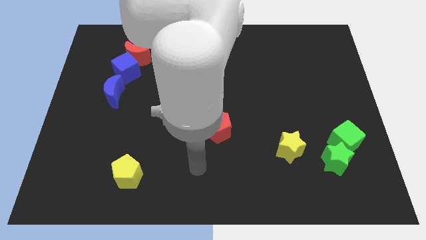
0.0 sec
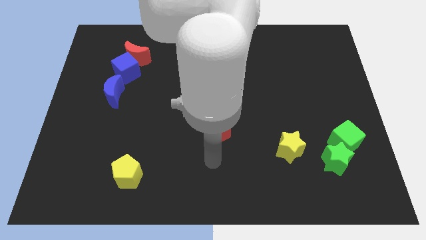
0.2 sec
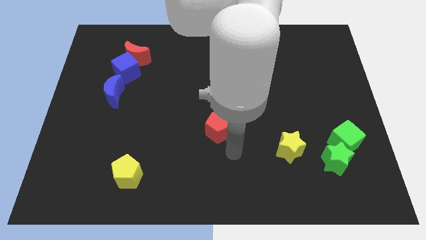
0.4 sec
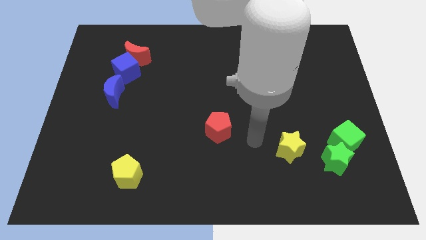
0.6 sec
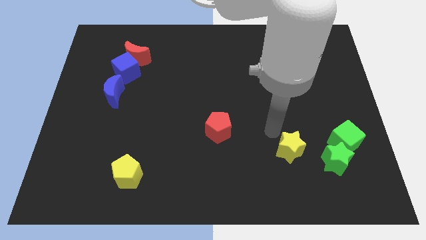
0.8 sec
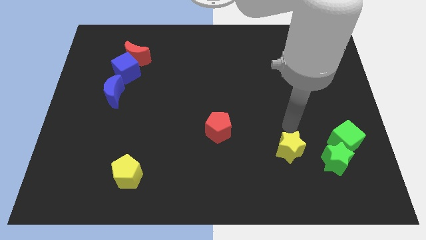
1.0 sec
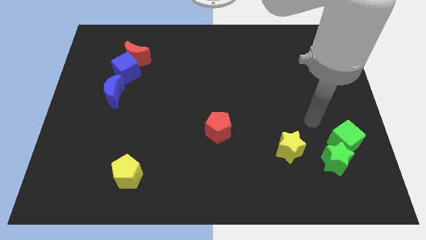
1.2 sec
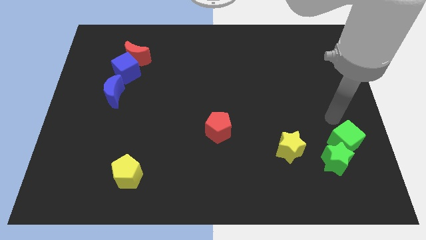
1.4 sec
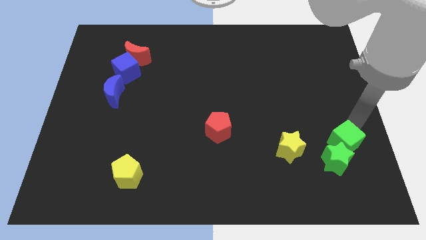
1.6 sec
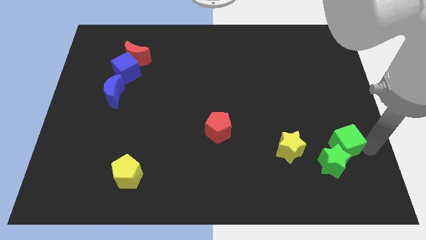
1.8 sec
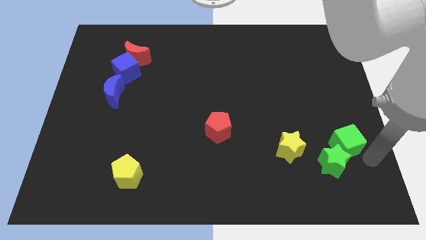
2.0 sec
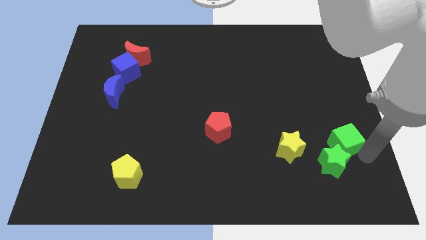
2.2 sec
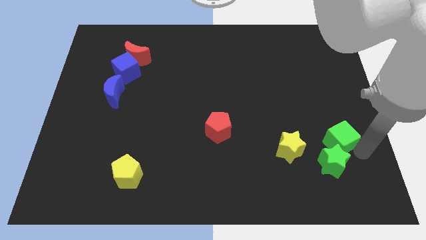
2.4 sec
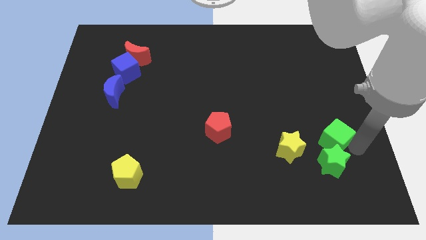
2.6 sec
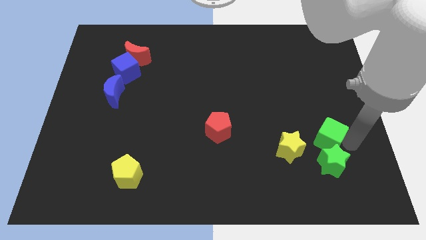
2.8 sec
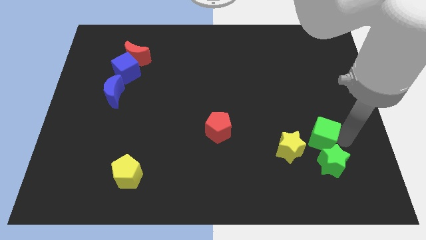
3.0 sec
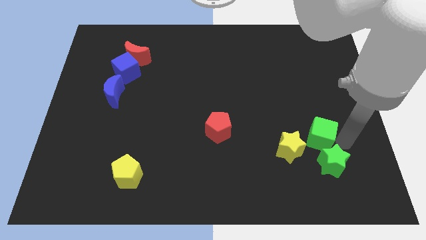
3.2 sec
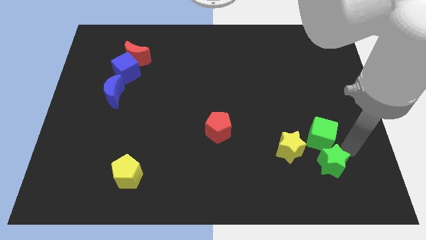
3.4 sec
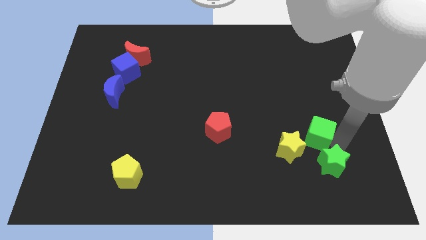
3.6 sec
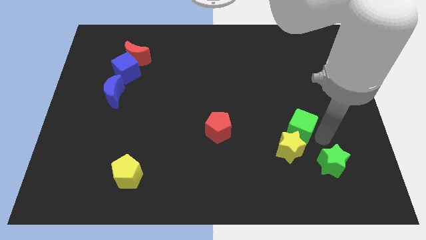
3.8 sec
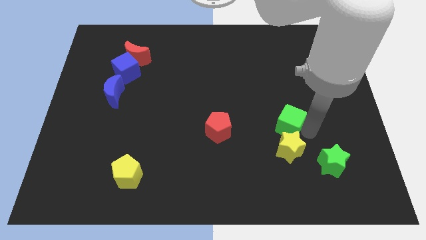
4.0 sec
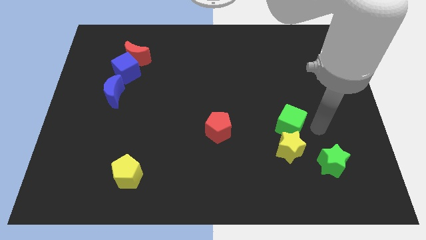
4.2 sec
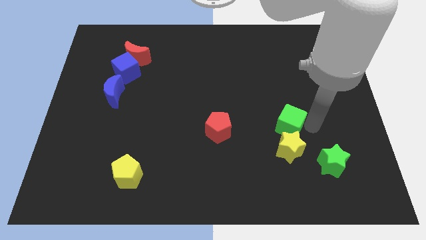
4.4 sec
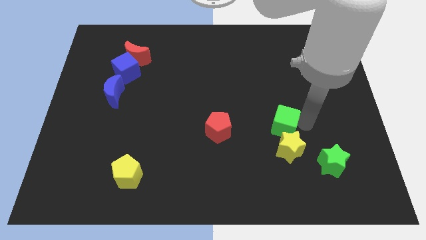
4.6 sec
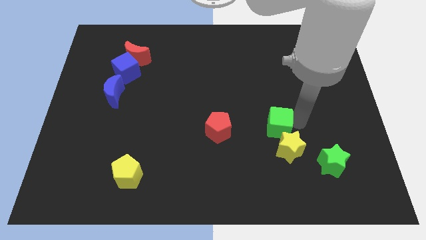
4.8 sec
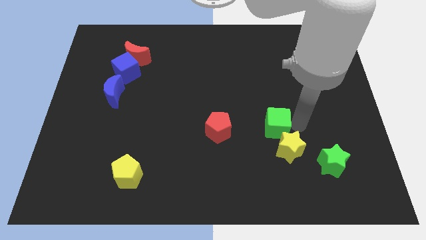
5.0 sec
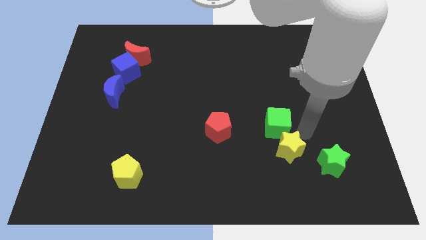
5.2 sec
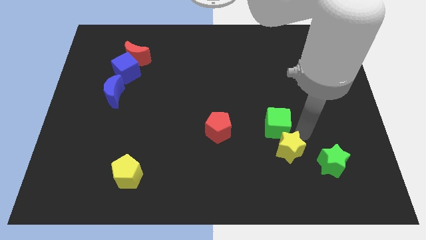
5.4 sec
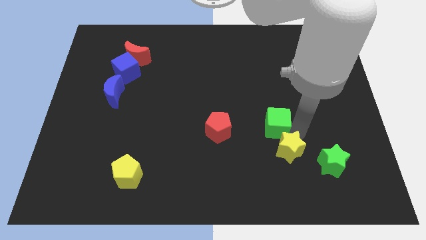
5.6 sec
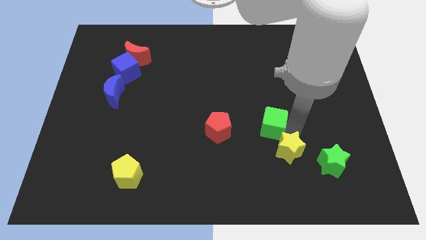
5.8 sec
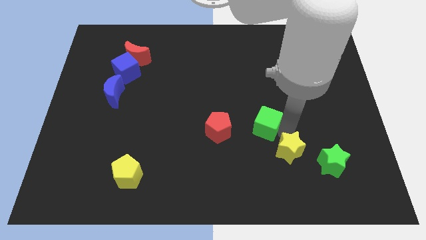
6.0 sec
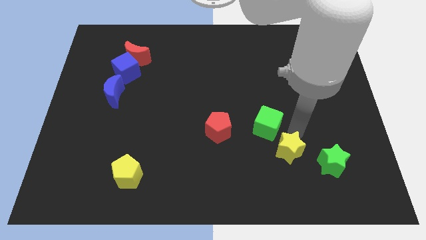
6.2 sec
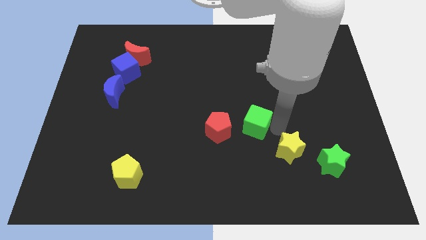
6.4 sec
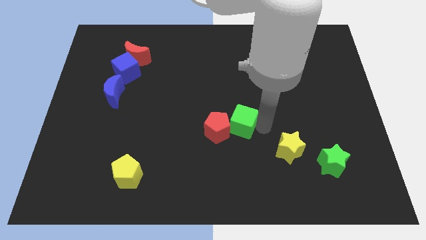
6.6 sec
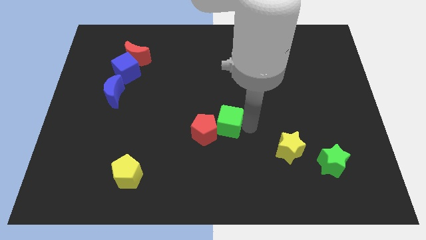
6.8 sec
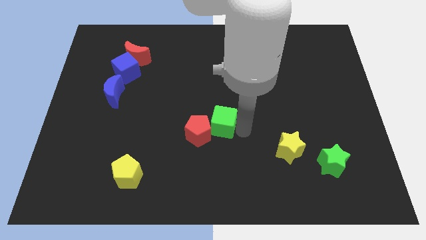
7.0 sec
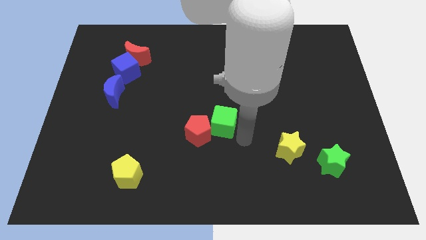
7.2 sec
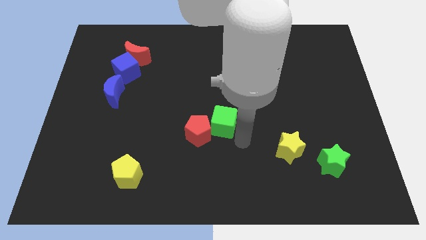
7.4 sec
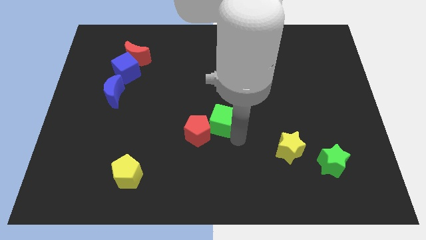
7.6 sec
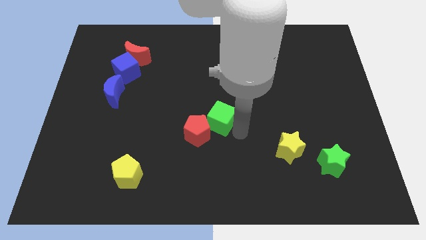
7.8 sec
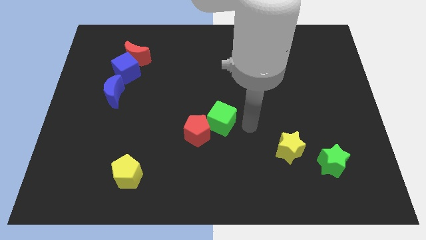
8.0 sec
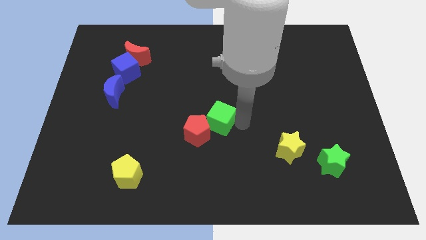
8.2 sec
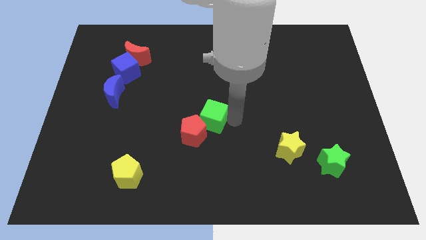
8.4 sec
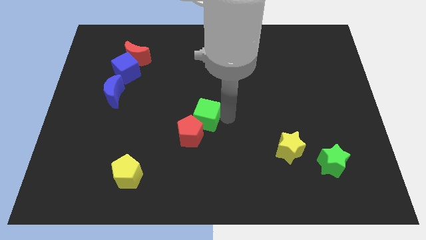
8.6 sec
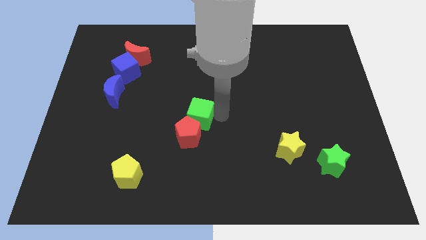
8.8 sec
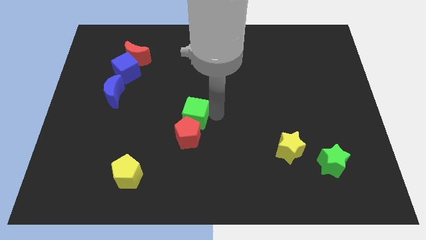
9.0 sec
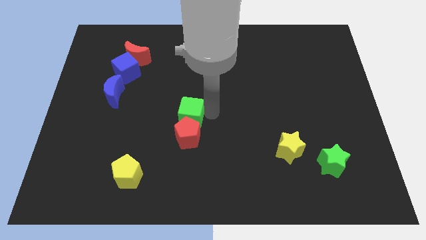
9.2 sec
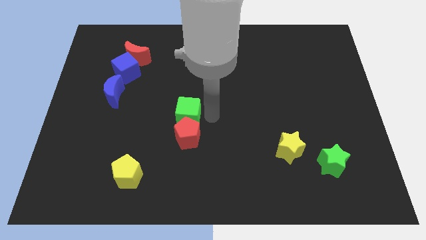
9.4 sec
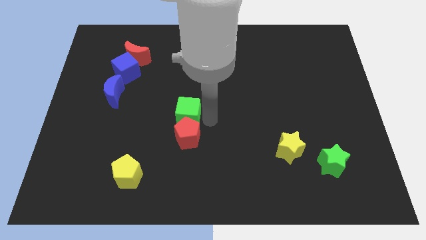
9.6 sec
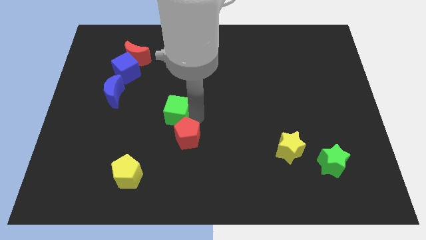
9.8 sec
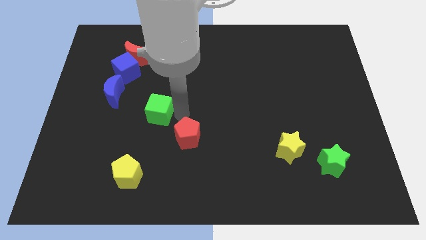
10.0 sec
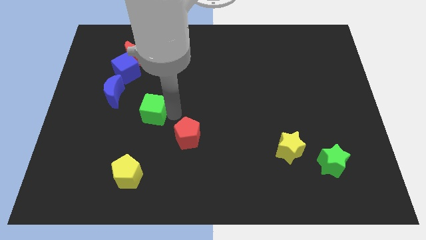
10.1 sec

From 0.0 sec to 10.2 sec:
push the green cube to the bottom right side of the blue moon

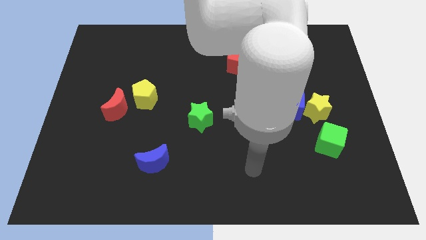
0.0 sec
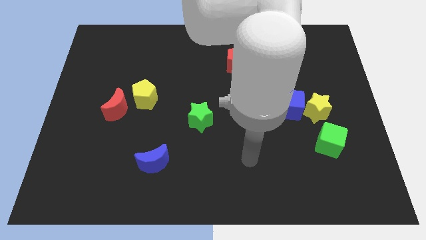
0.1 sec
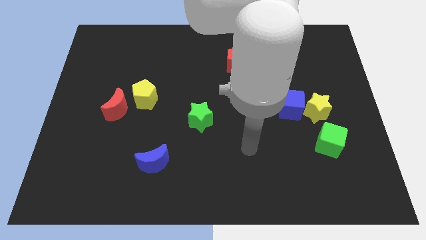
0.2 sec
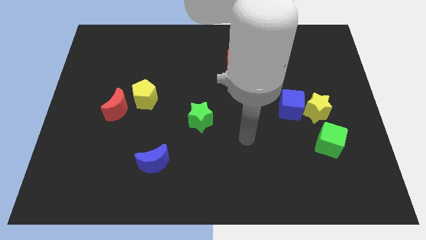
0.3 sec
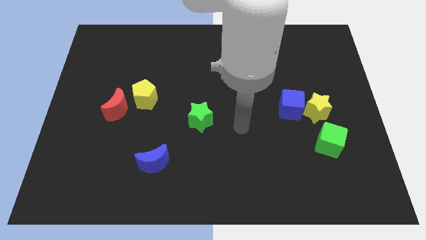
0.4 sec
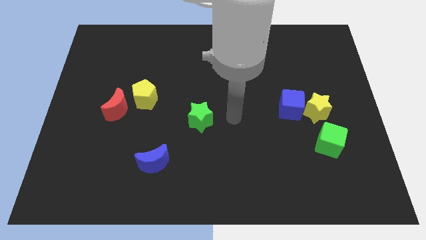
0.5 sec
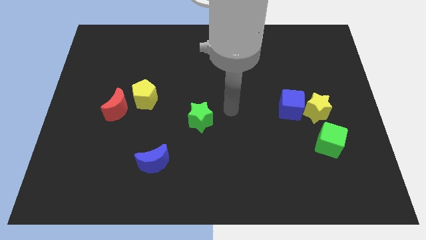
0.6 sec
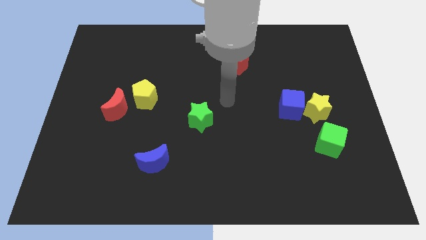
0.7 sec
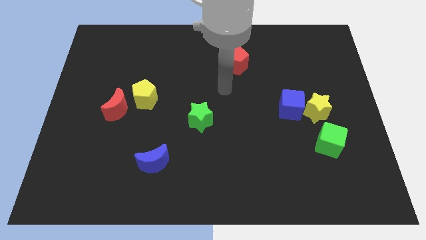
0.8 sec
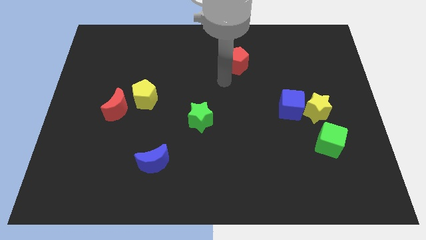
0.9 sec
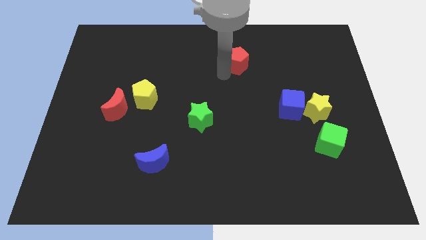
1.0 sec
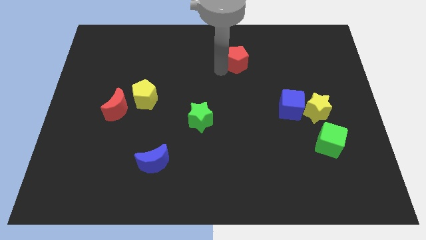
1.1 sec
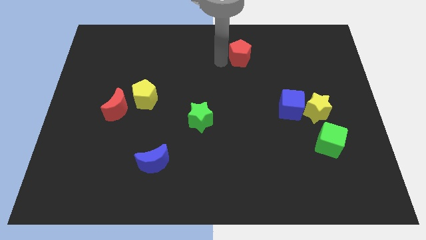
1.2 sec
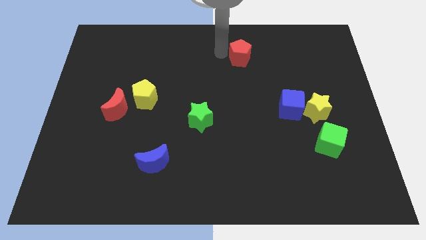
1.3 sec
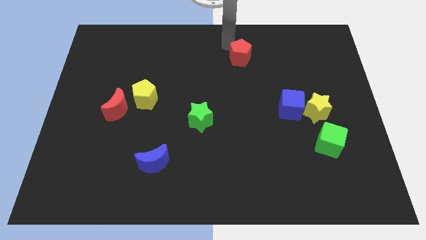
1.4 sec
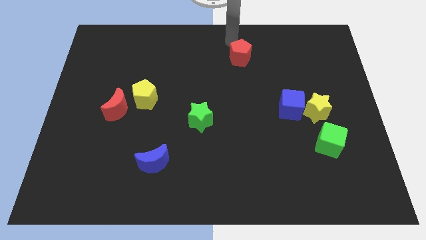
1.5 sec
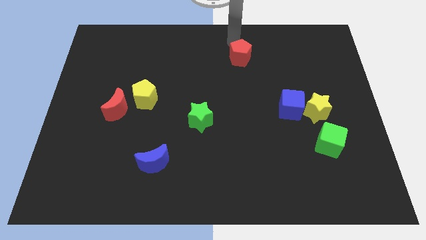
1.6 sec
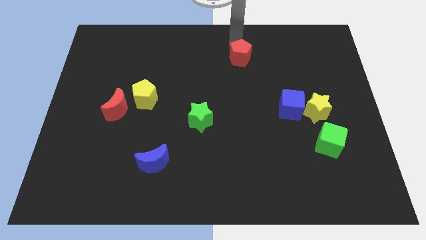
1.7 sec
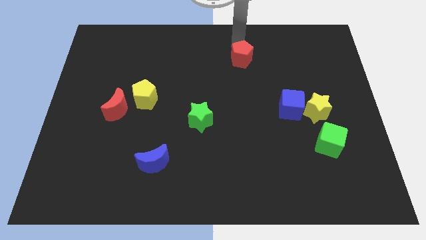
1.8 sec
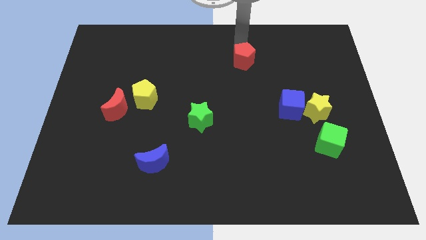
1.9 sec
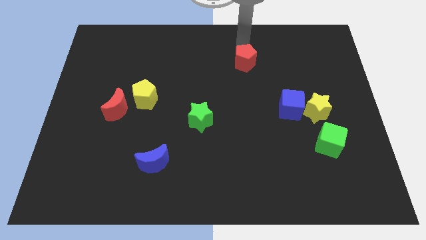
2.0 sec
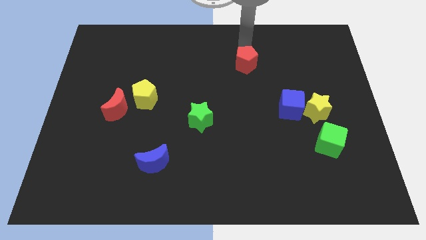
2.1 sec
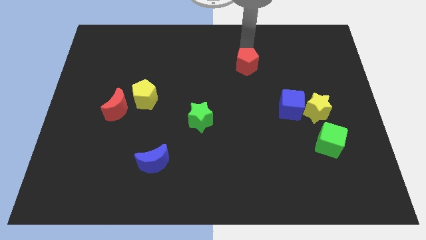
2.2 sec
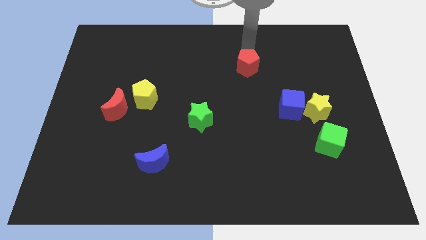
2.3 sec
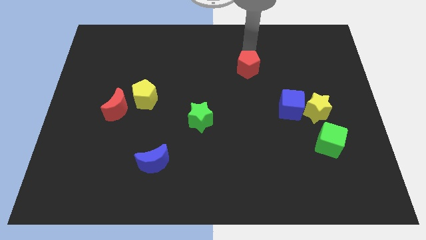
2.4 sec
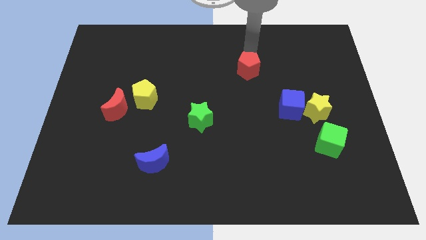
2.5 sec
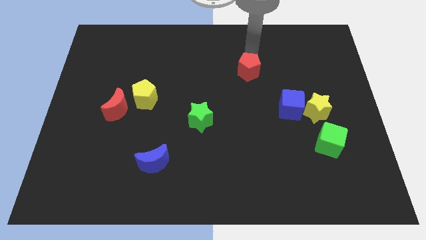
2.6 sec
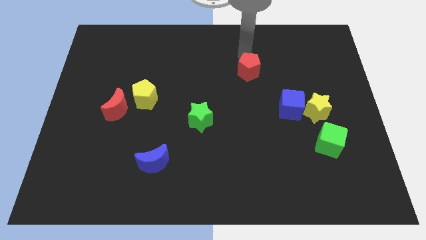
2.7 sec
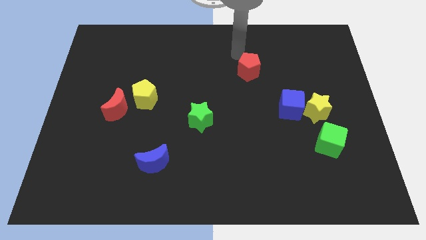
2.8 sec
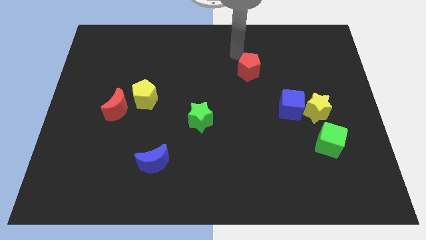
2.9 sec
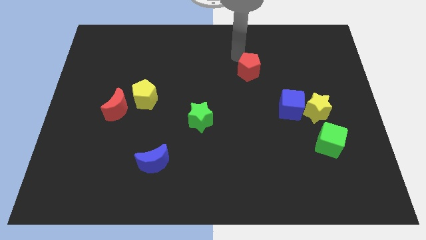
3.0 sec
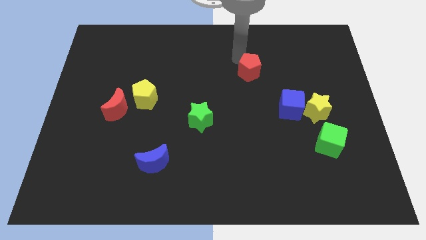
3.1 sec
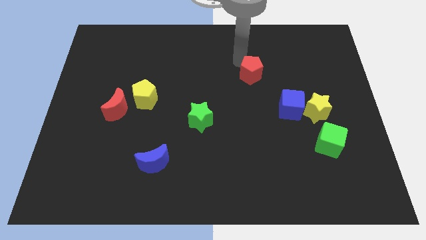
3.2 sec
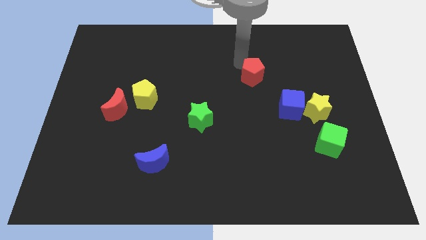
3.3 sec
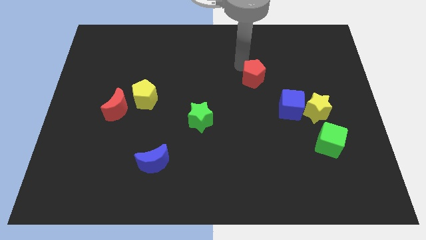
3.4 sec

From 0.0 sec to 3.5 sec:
push the red pentagon to the top left side of the blue cube
